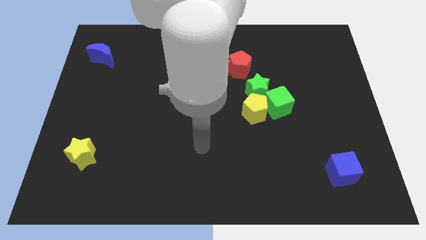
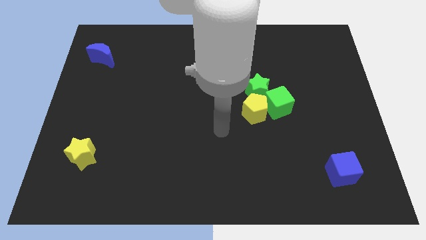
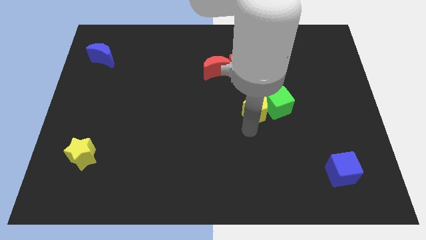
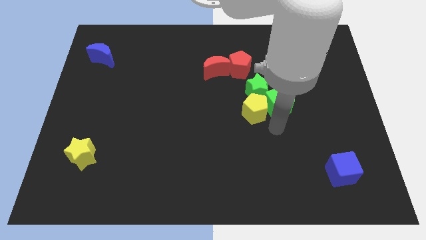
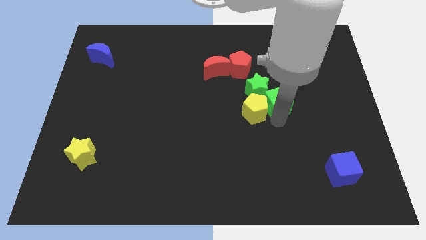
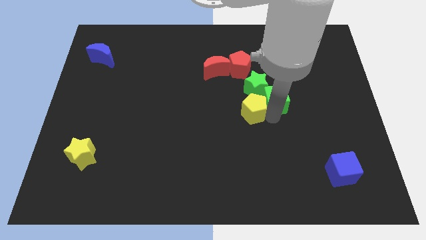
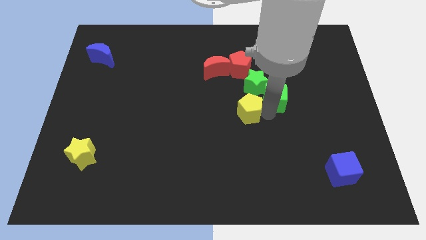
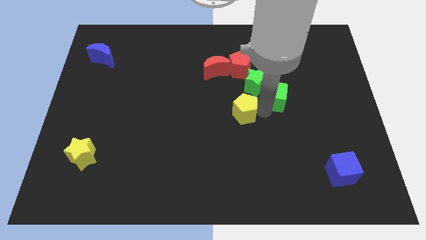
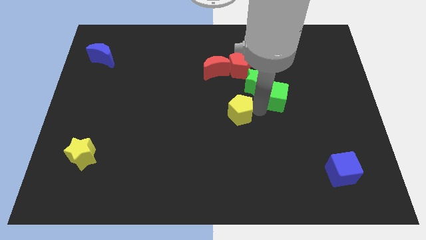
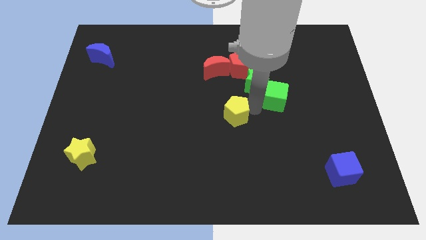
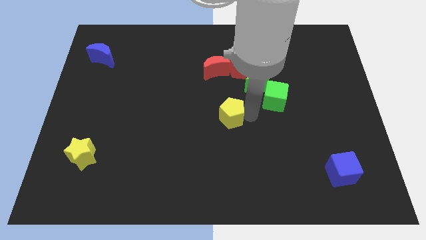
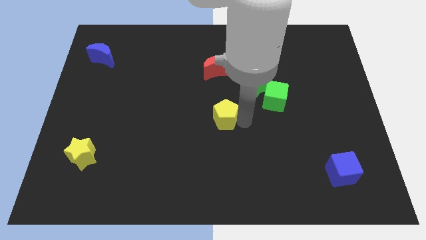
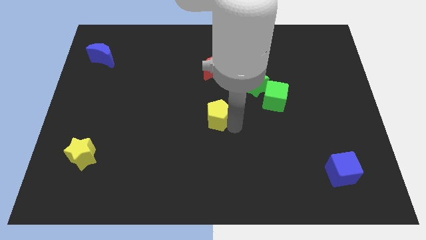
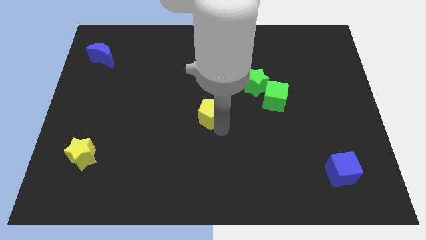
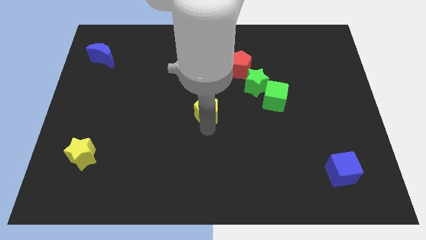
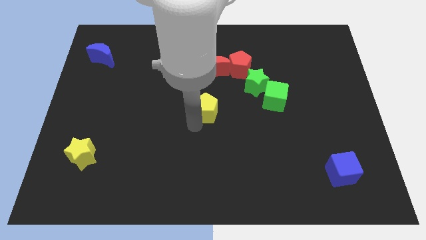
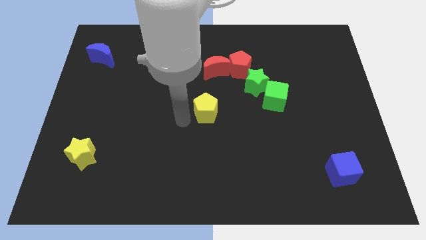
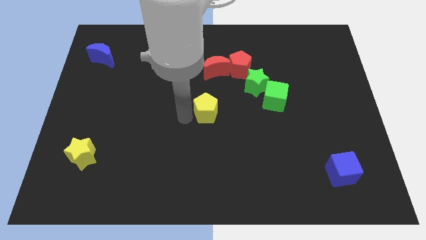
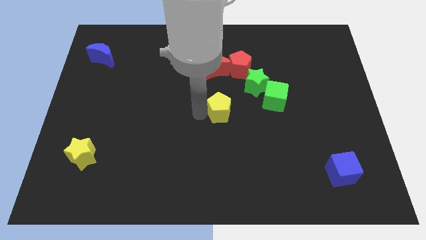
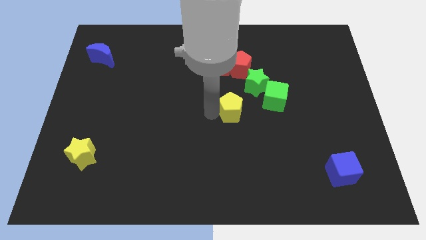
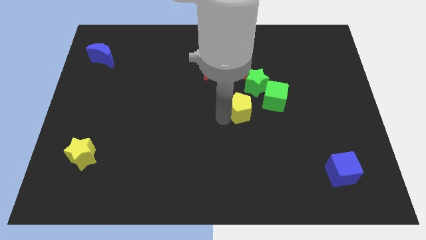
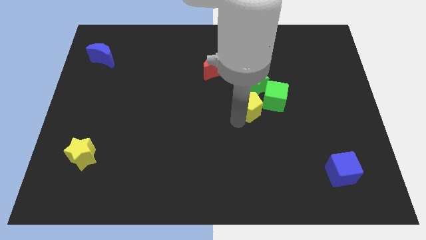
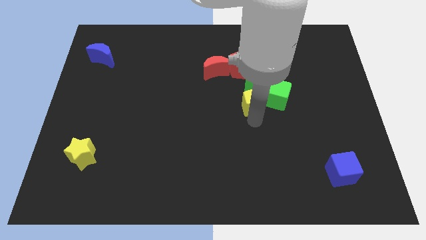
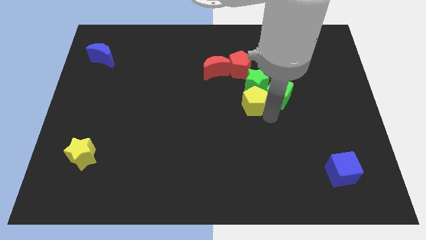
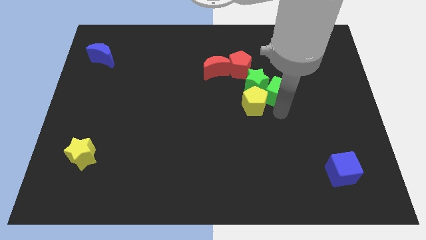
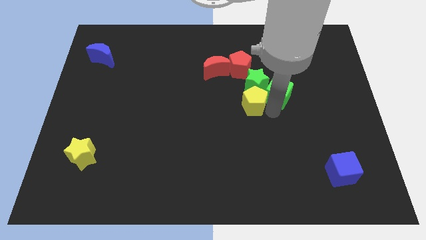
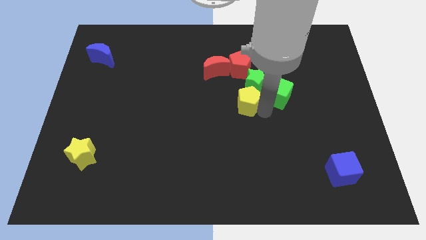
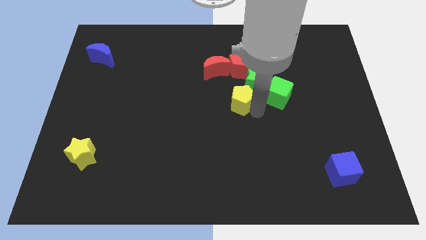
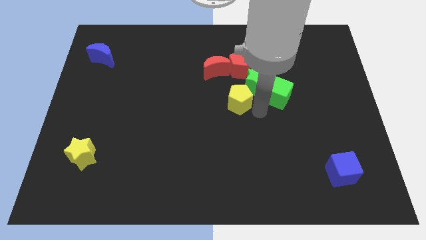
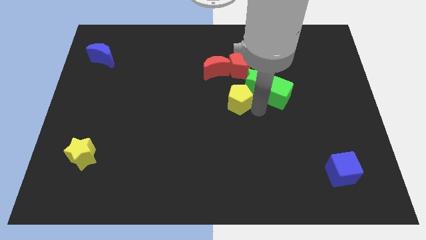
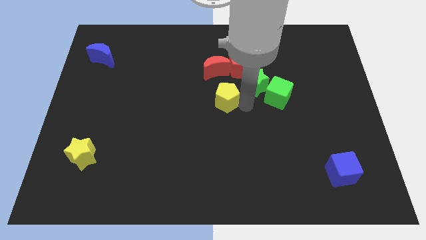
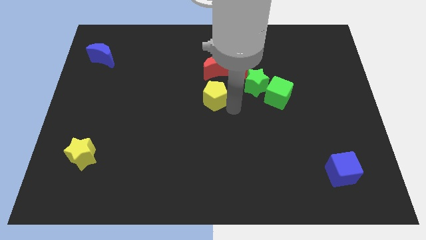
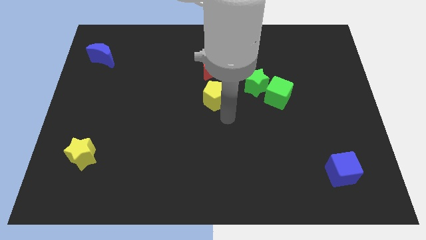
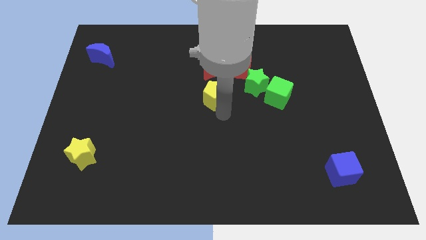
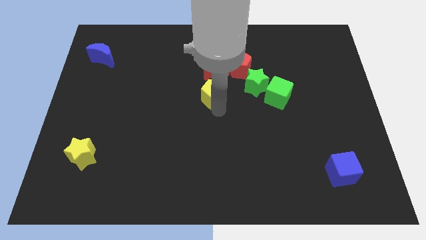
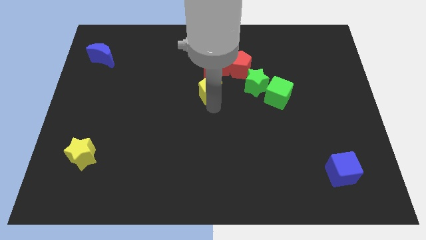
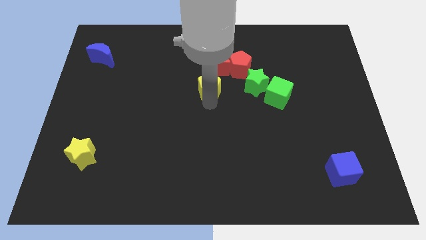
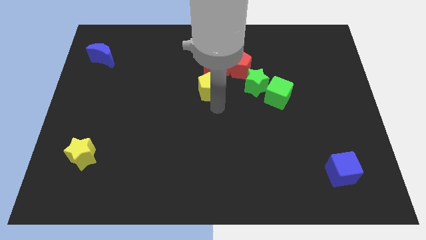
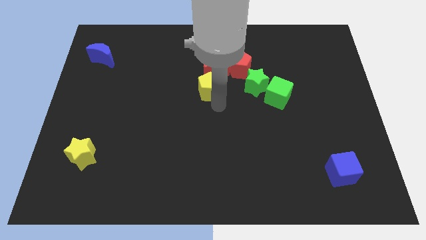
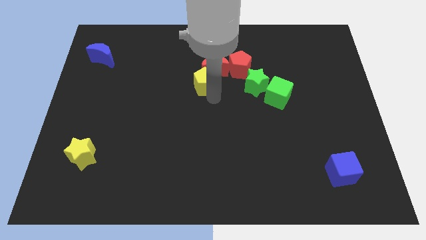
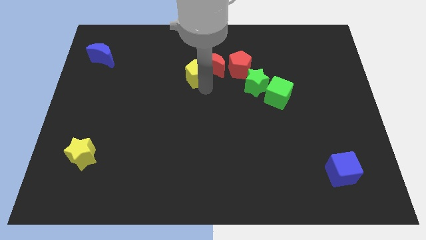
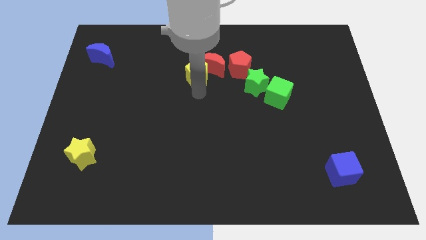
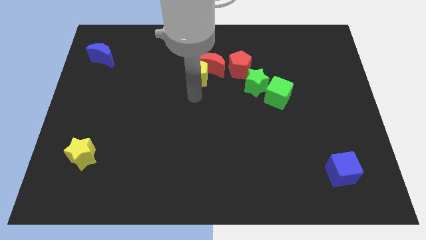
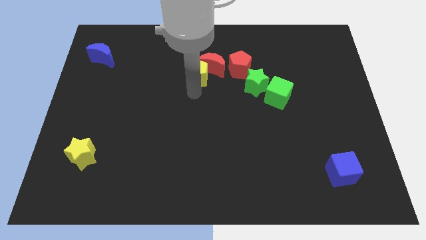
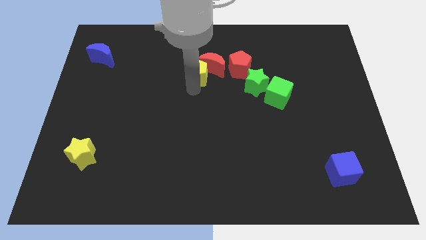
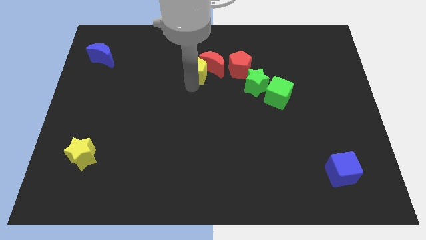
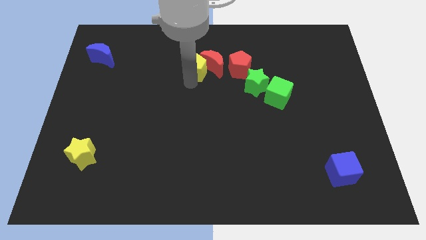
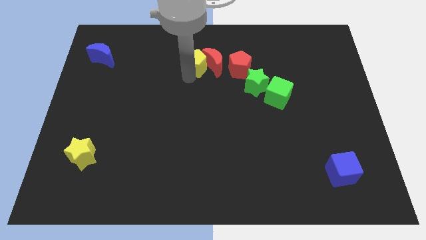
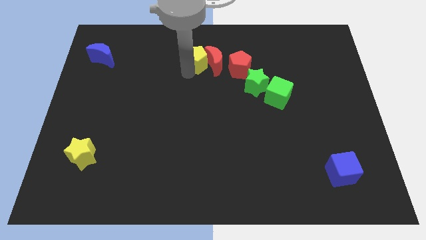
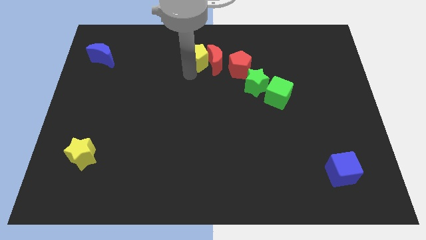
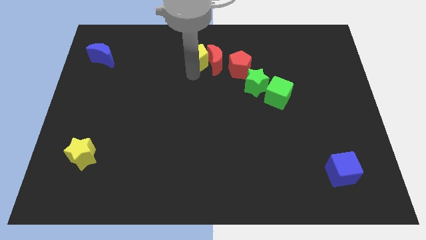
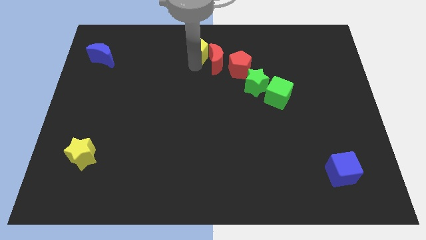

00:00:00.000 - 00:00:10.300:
push the yellow pentagon to the towards your base
